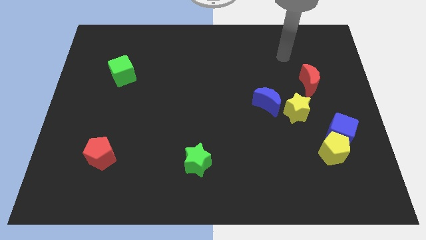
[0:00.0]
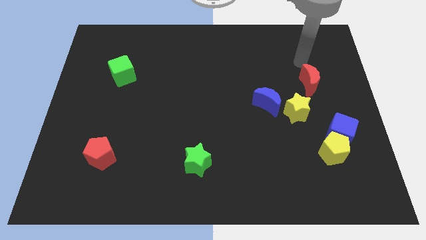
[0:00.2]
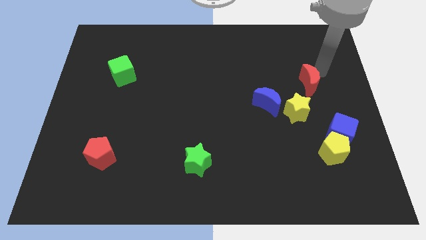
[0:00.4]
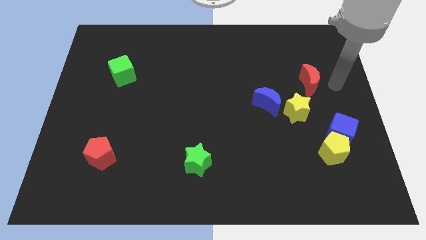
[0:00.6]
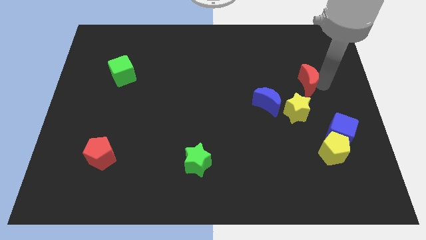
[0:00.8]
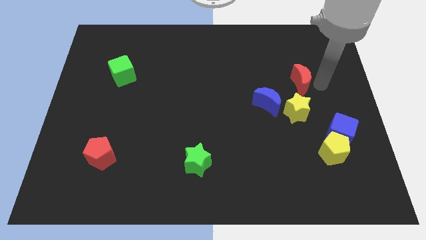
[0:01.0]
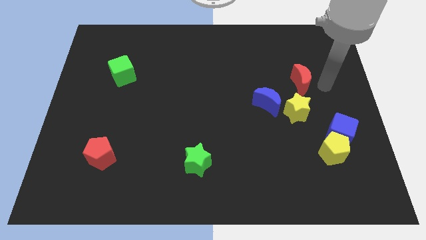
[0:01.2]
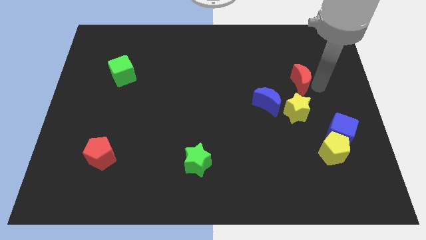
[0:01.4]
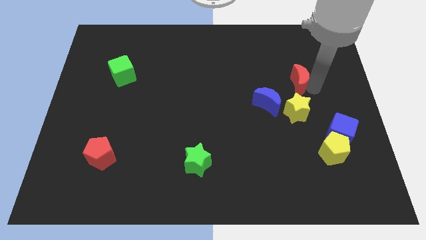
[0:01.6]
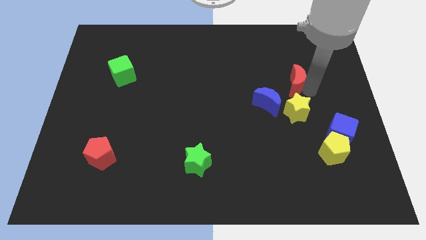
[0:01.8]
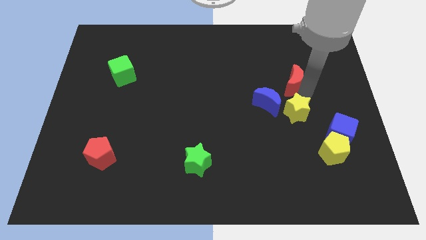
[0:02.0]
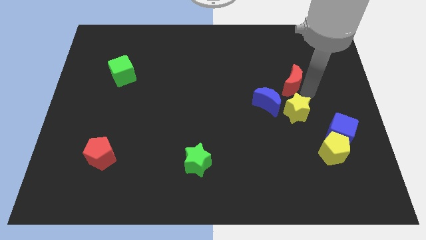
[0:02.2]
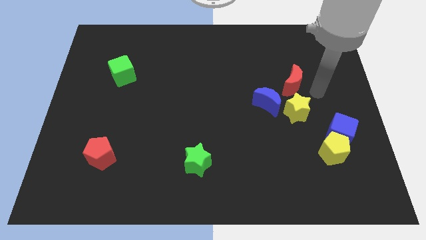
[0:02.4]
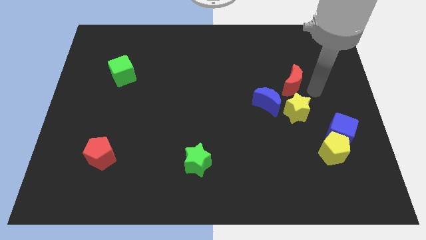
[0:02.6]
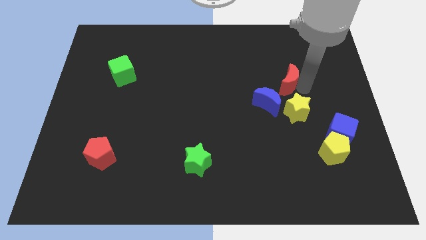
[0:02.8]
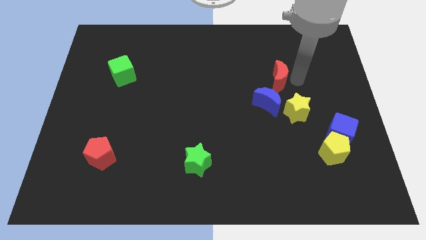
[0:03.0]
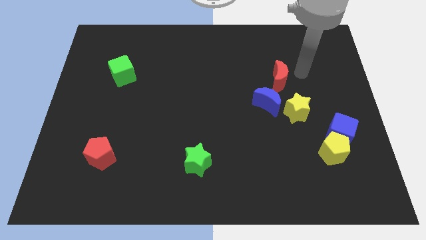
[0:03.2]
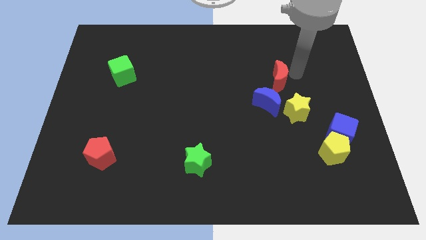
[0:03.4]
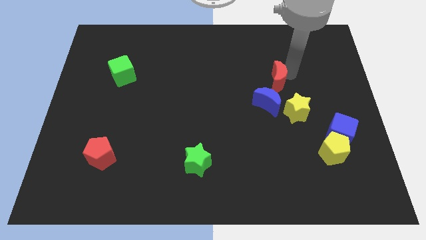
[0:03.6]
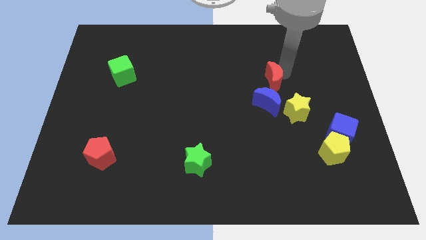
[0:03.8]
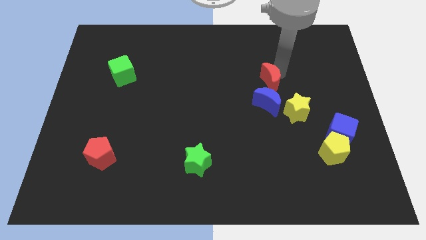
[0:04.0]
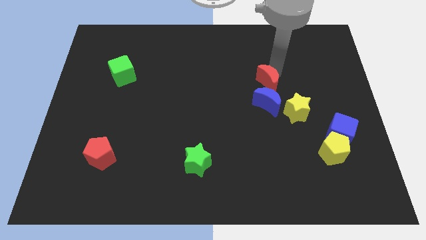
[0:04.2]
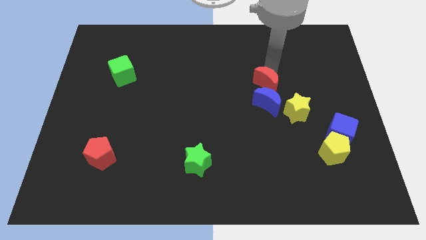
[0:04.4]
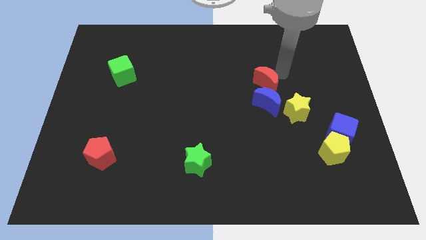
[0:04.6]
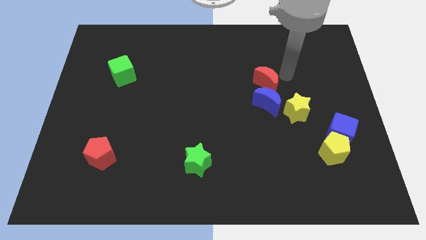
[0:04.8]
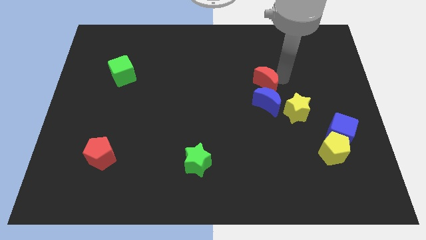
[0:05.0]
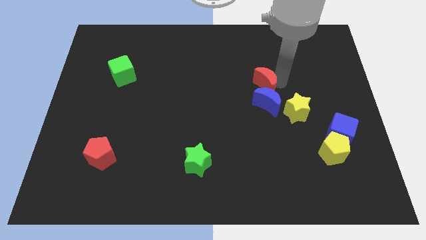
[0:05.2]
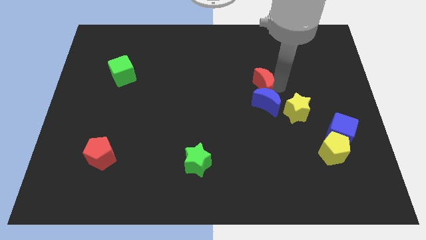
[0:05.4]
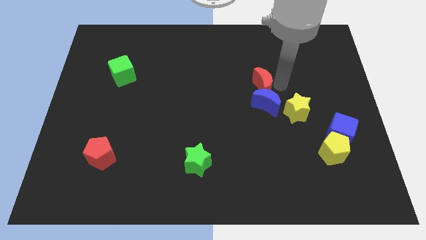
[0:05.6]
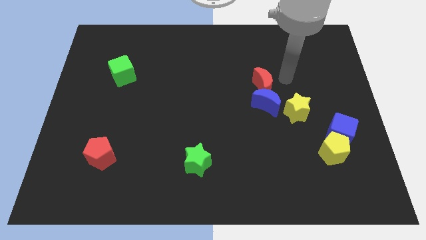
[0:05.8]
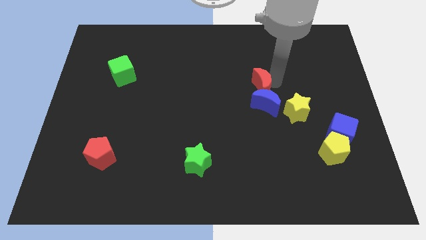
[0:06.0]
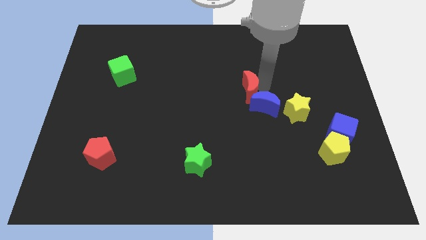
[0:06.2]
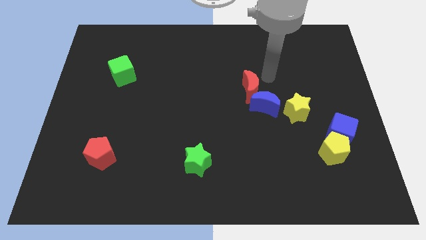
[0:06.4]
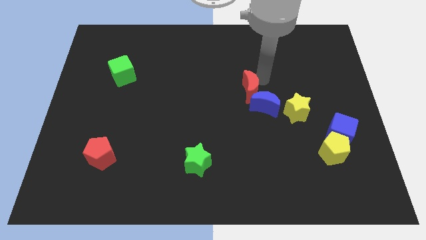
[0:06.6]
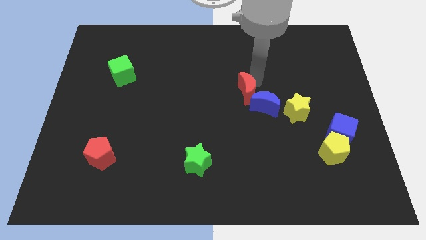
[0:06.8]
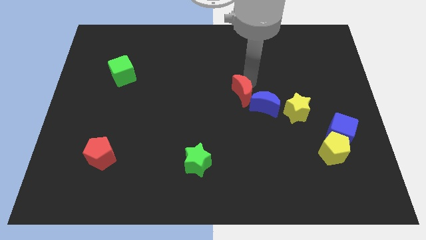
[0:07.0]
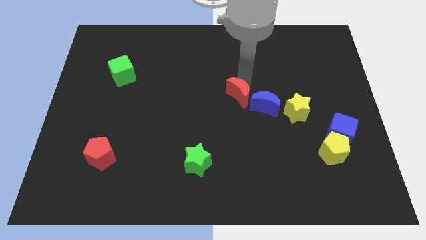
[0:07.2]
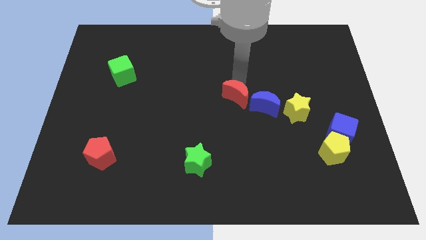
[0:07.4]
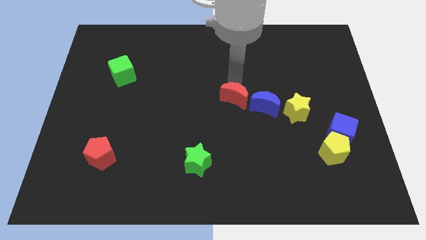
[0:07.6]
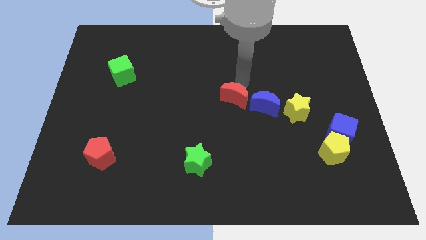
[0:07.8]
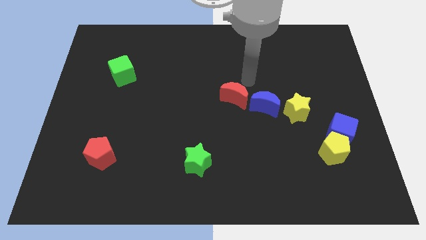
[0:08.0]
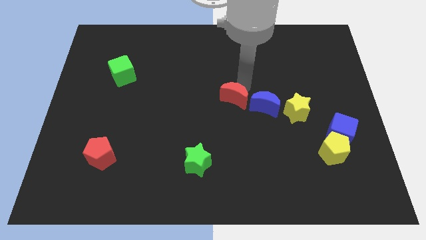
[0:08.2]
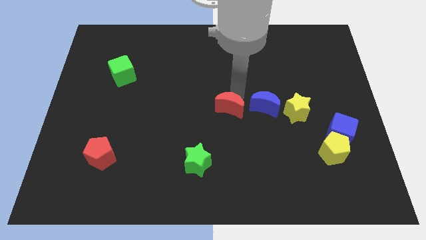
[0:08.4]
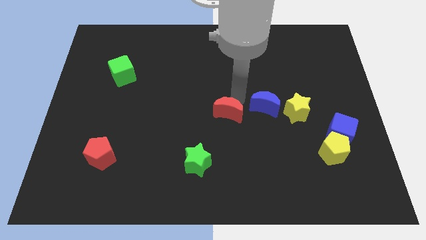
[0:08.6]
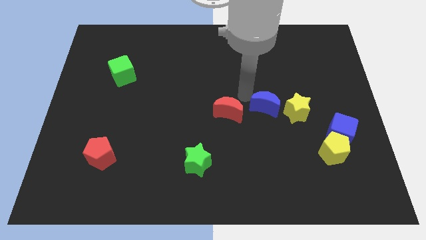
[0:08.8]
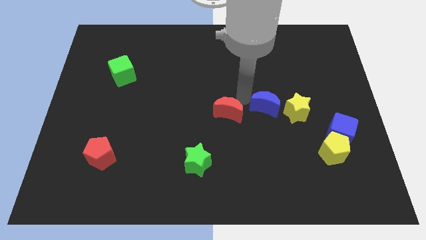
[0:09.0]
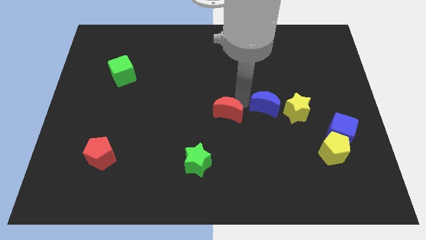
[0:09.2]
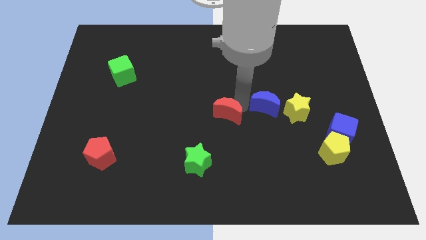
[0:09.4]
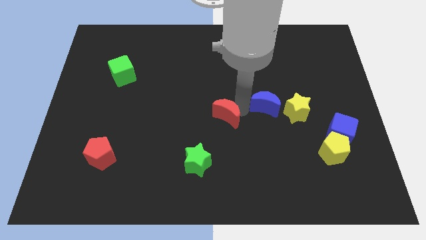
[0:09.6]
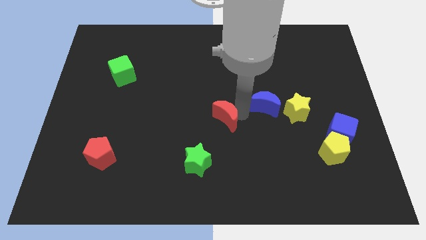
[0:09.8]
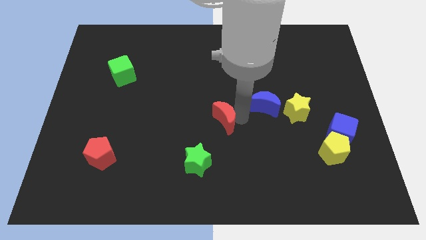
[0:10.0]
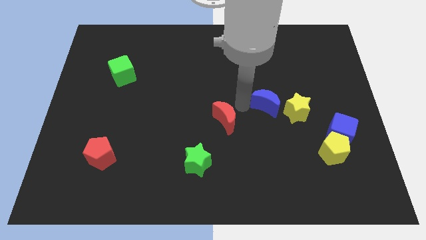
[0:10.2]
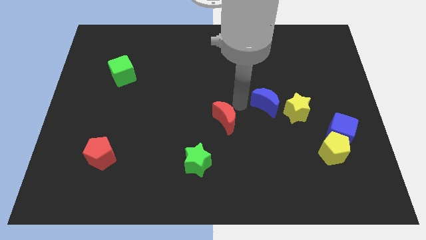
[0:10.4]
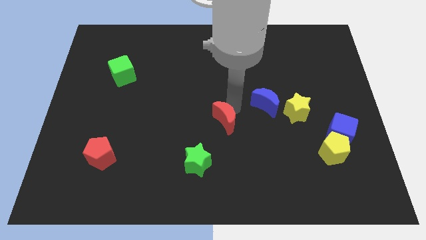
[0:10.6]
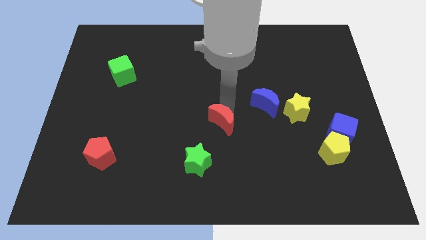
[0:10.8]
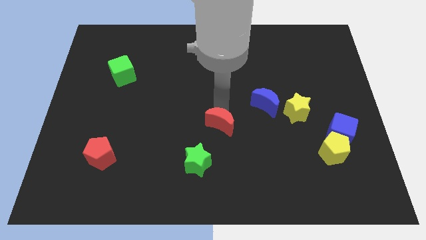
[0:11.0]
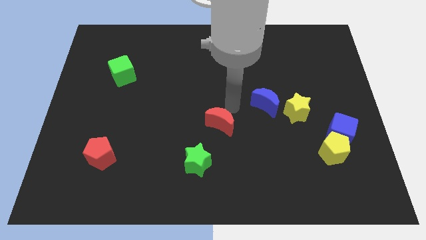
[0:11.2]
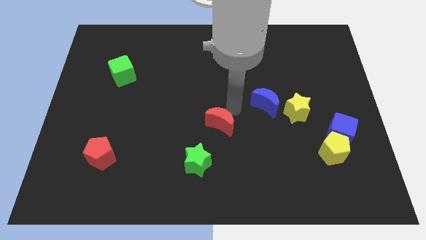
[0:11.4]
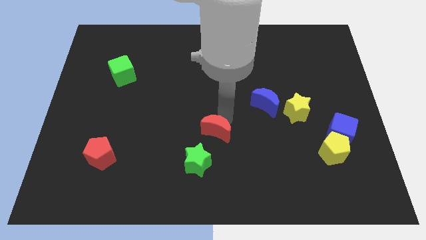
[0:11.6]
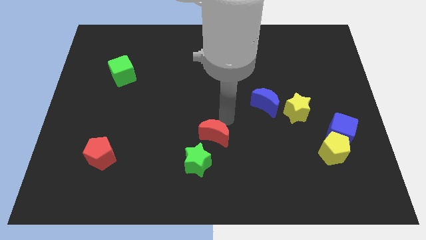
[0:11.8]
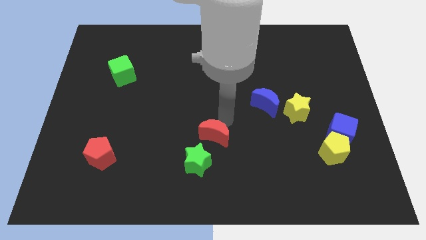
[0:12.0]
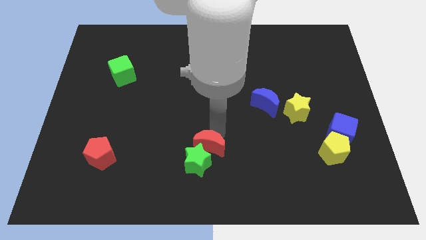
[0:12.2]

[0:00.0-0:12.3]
slide the red moon to the green star

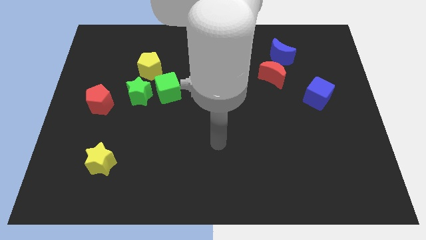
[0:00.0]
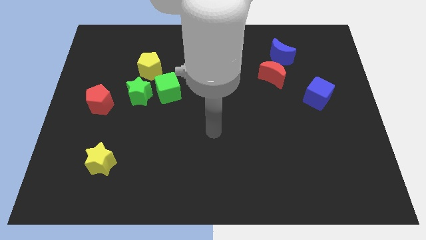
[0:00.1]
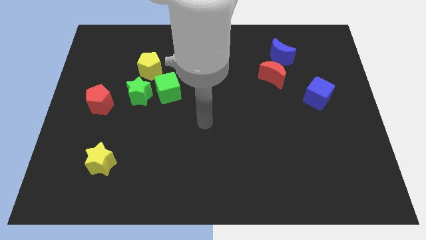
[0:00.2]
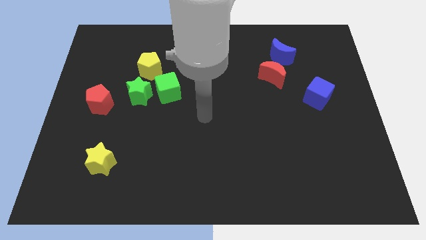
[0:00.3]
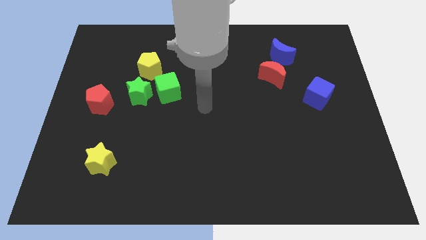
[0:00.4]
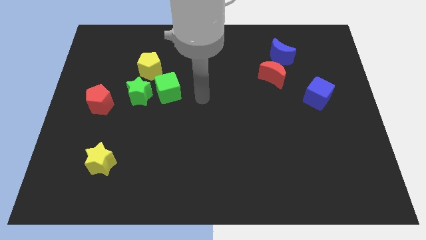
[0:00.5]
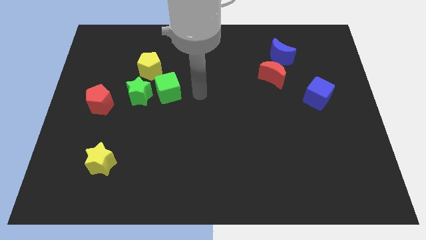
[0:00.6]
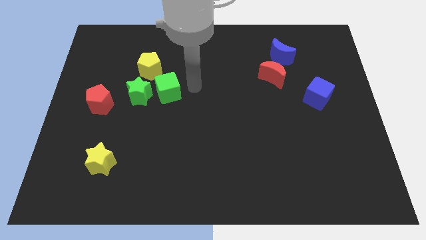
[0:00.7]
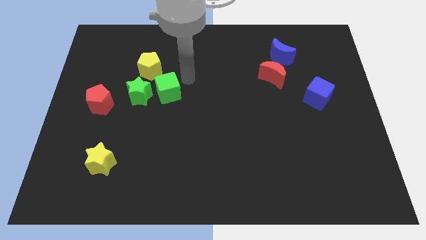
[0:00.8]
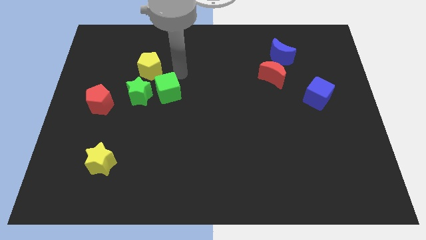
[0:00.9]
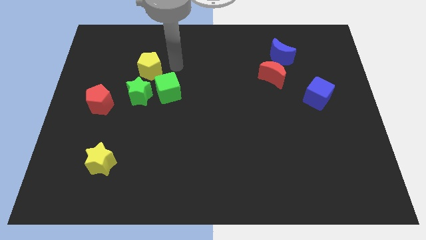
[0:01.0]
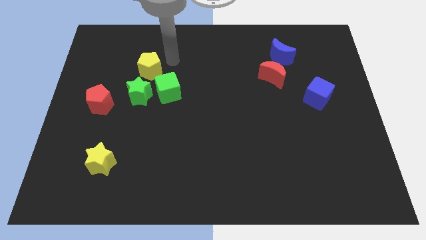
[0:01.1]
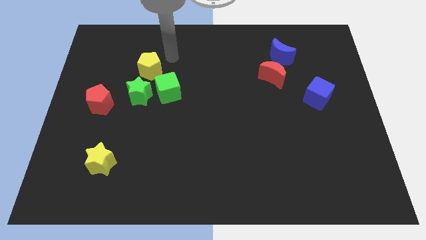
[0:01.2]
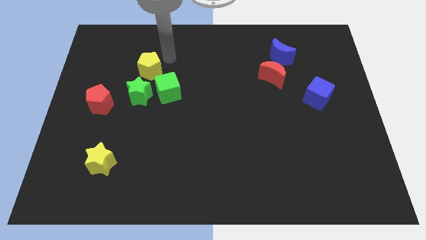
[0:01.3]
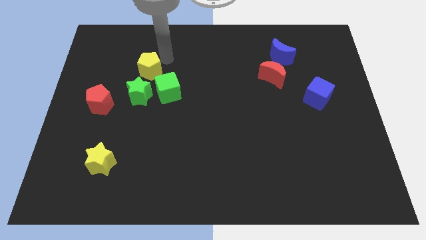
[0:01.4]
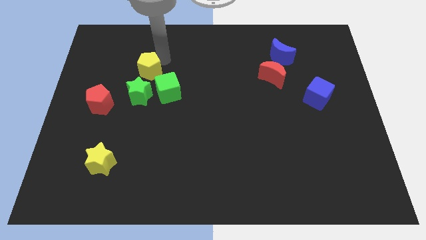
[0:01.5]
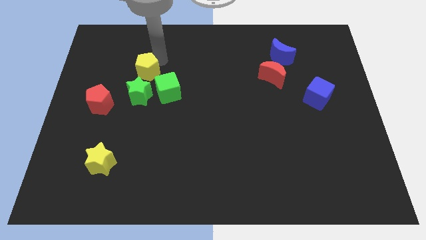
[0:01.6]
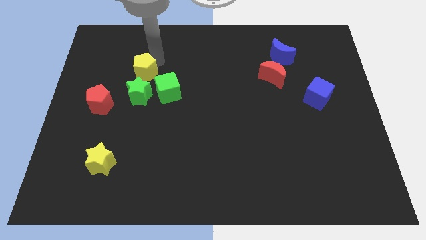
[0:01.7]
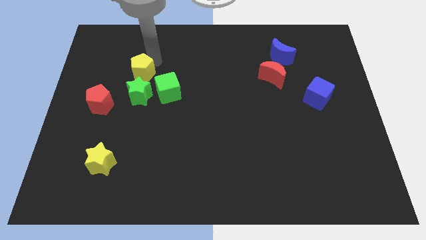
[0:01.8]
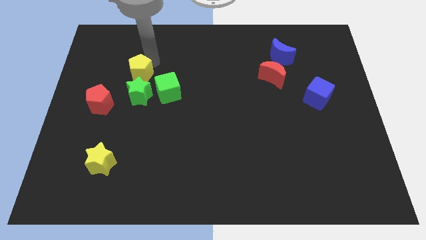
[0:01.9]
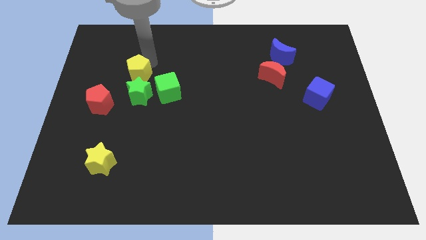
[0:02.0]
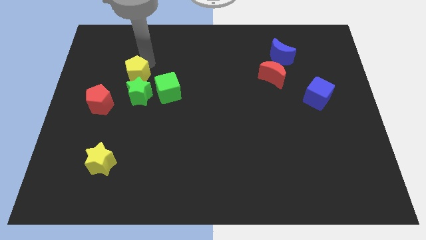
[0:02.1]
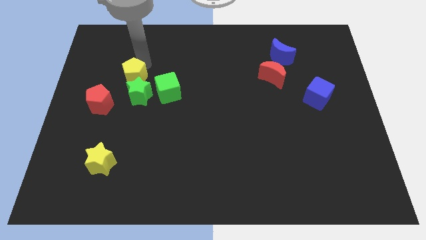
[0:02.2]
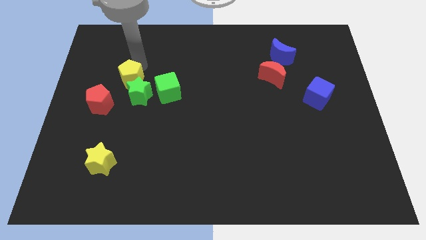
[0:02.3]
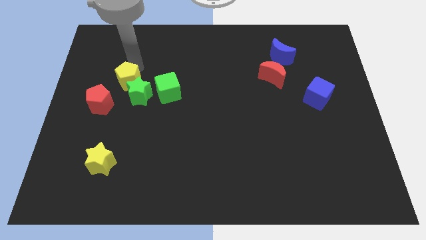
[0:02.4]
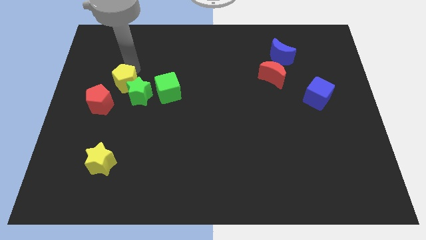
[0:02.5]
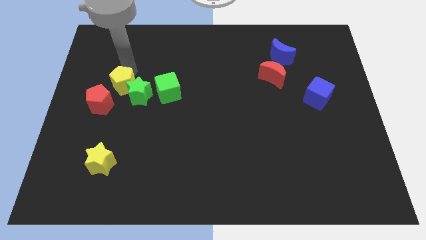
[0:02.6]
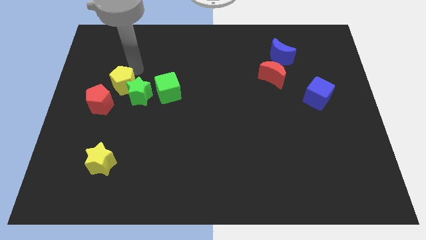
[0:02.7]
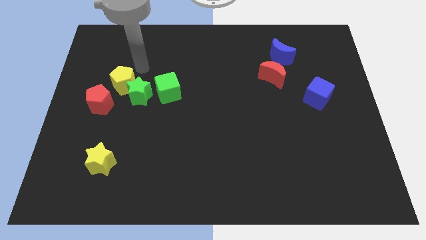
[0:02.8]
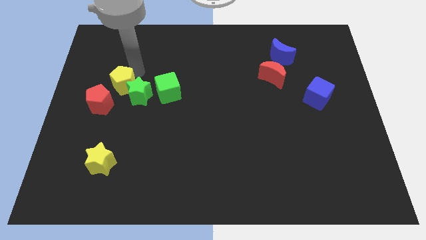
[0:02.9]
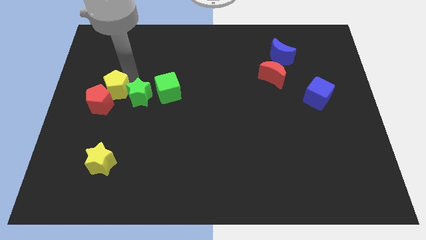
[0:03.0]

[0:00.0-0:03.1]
slide the yellow pentagon to the red pentagon
